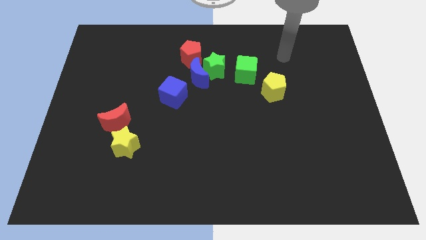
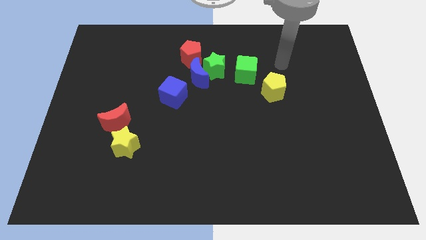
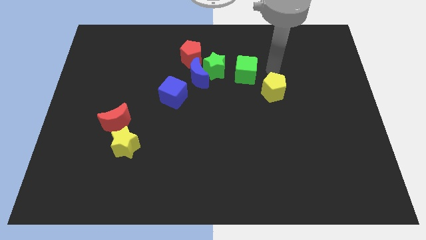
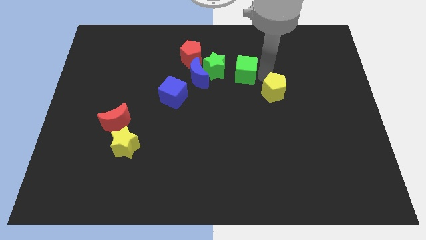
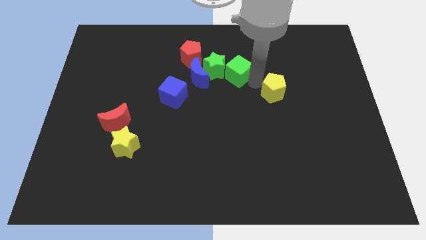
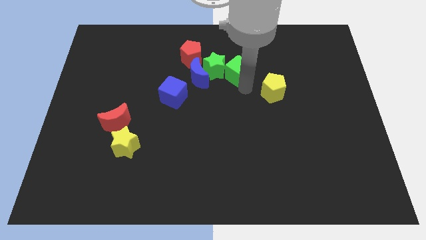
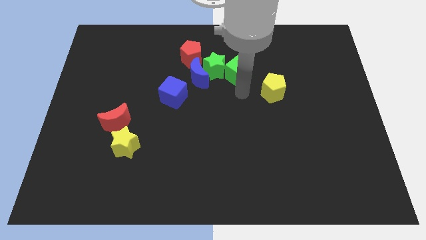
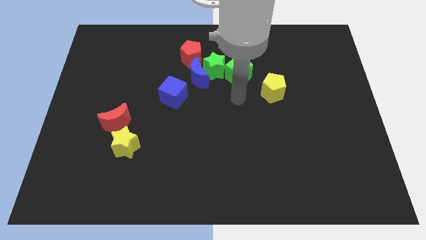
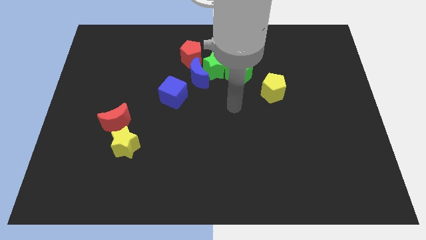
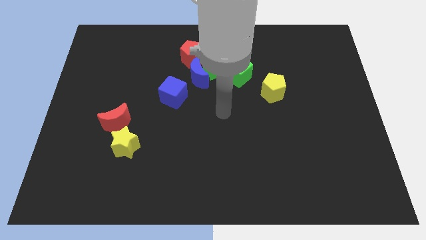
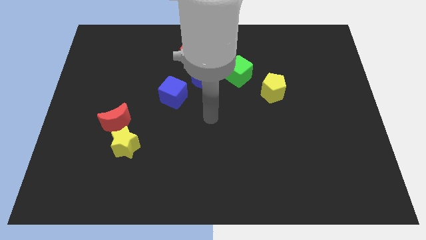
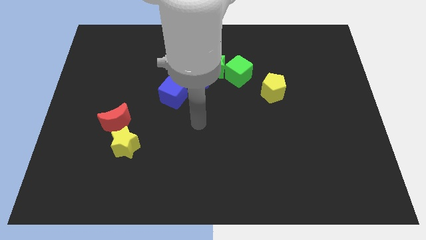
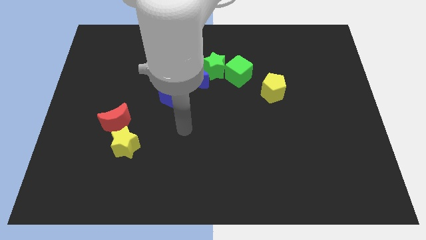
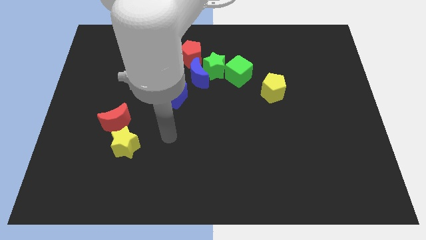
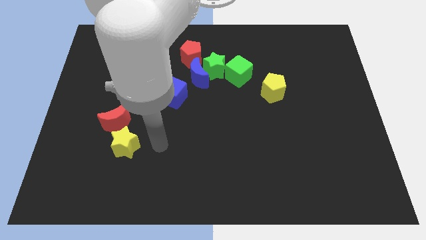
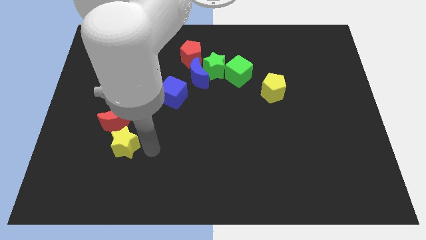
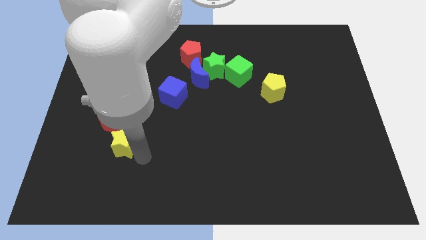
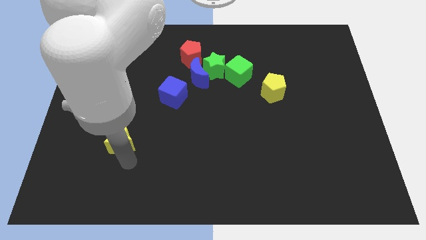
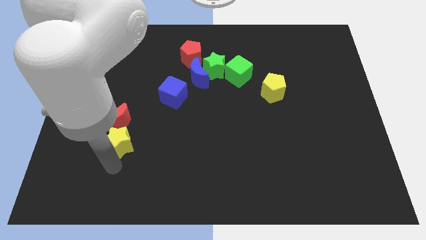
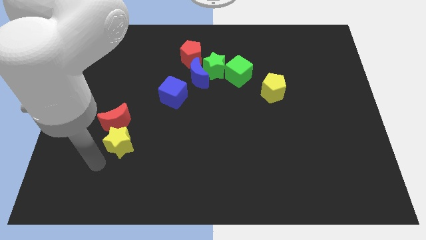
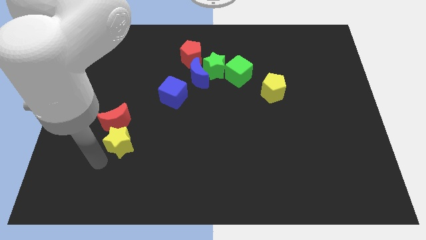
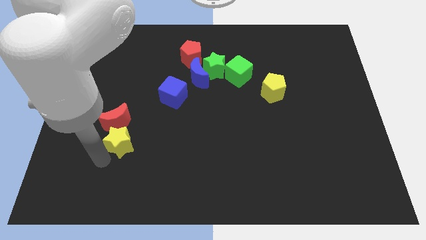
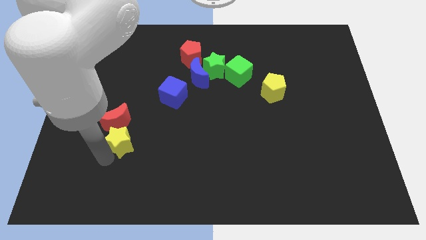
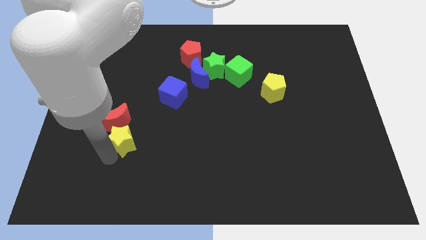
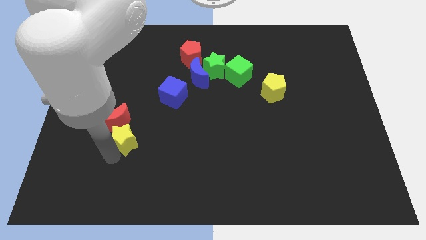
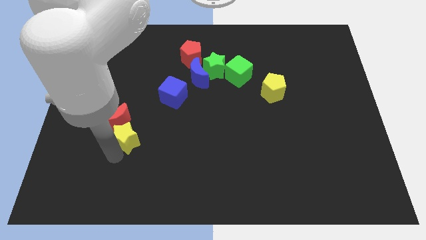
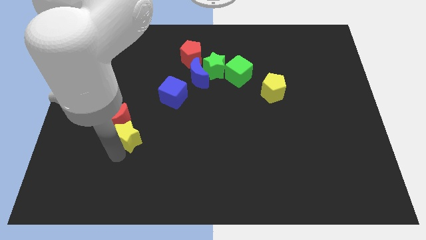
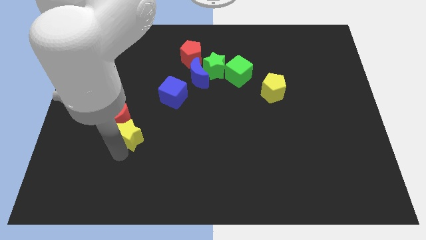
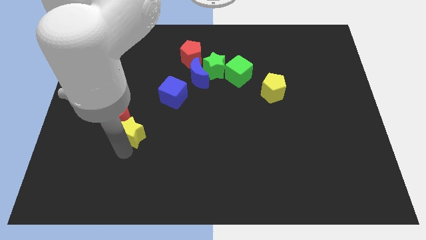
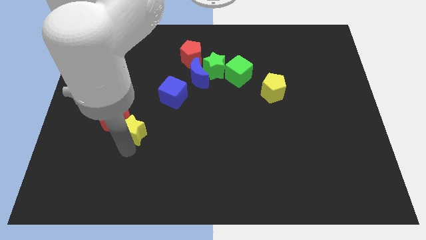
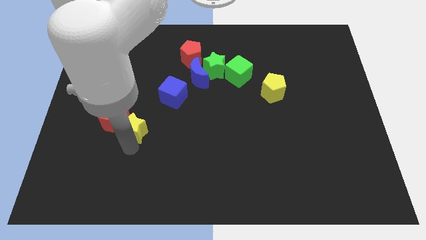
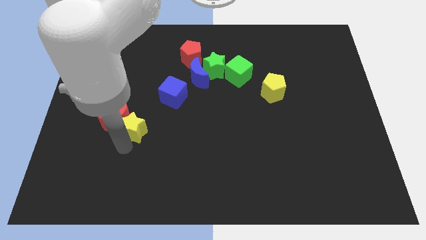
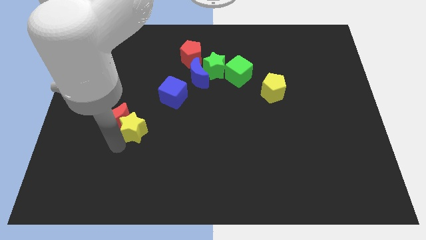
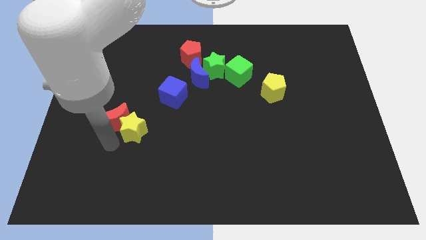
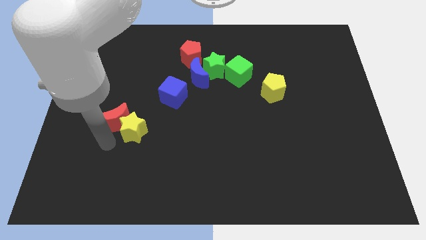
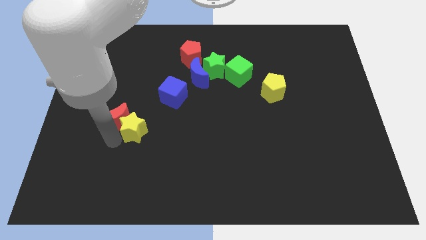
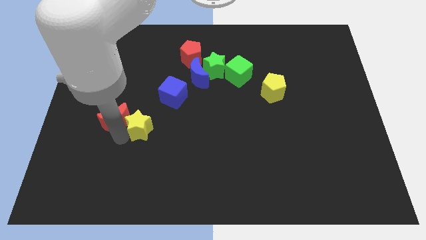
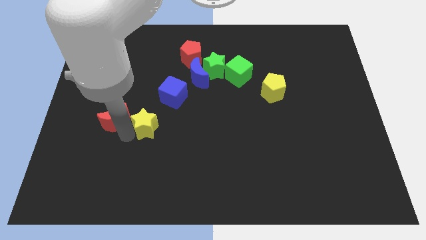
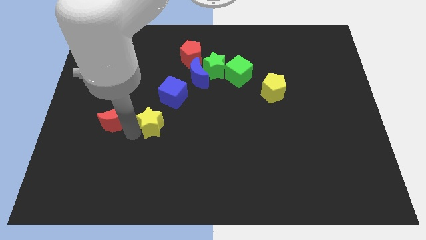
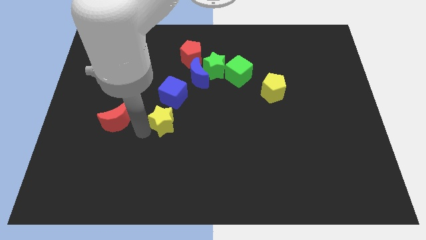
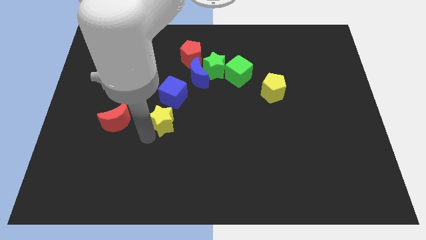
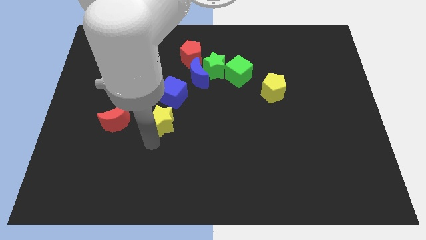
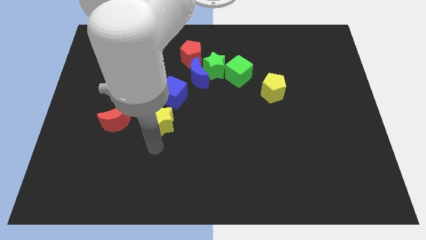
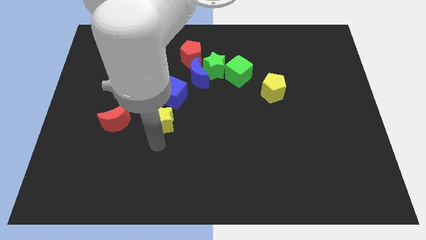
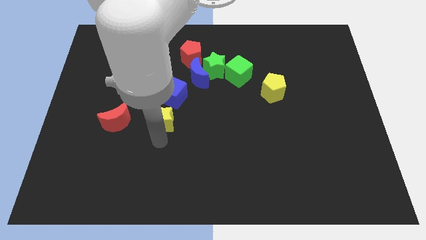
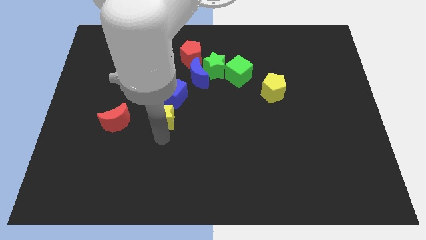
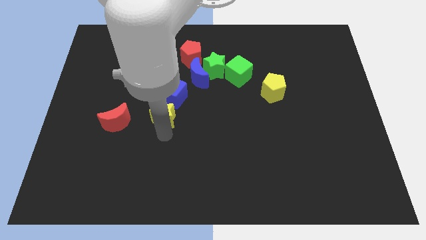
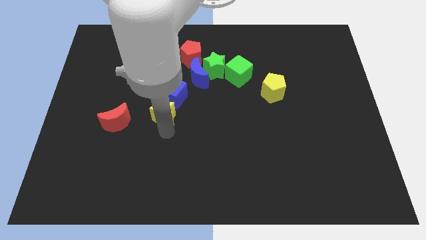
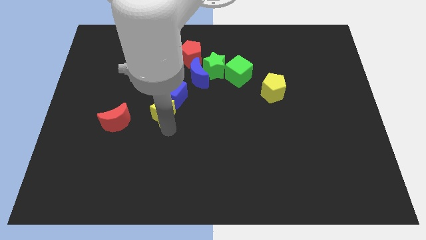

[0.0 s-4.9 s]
push the yellow star next to the blue cube

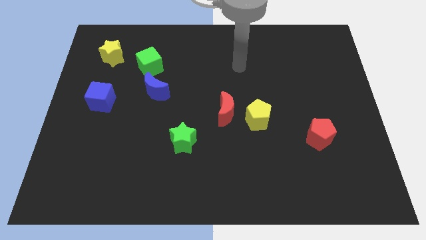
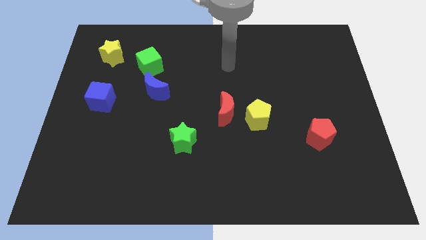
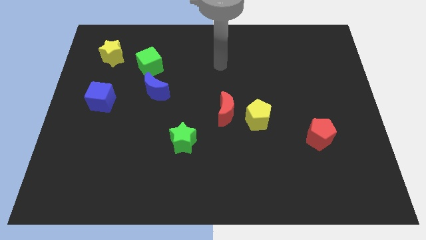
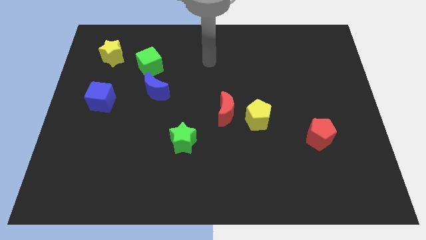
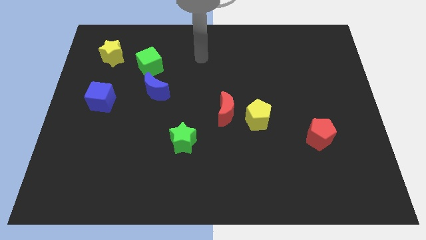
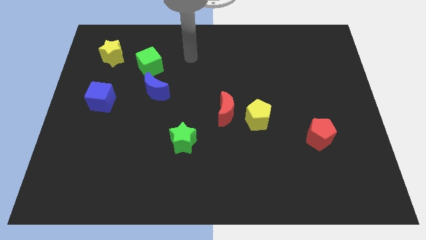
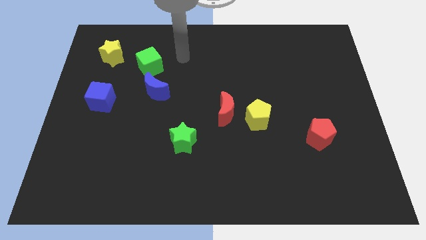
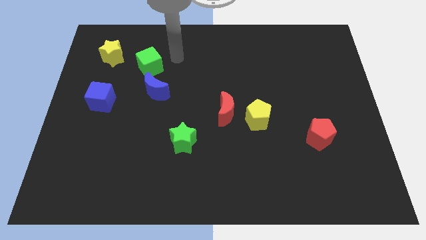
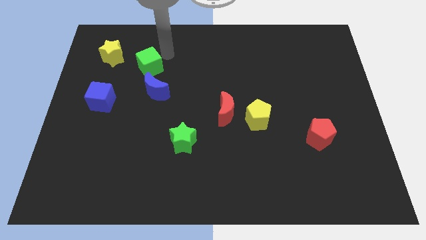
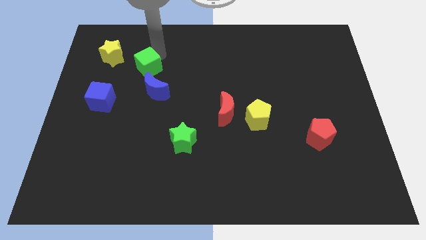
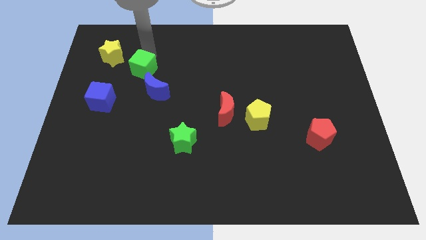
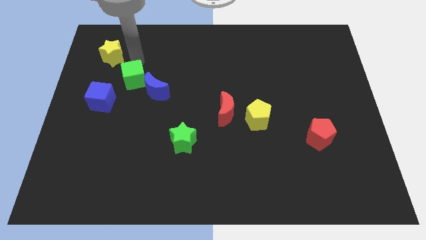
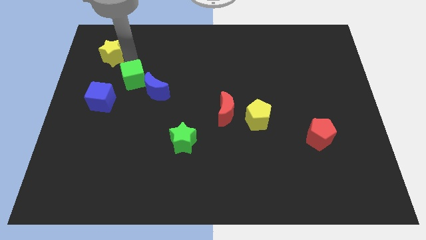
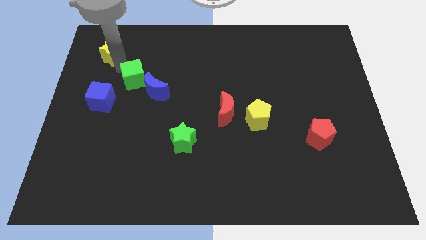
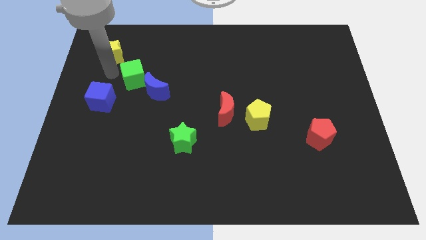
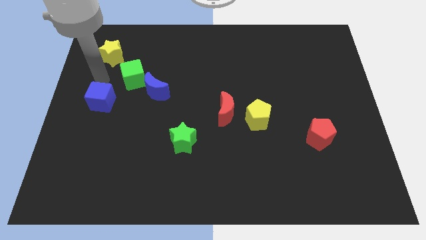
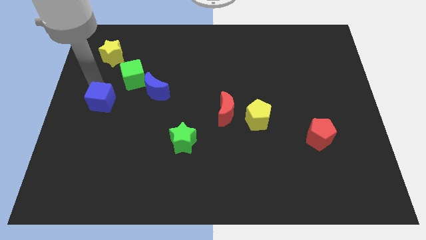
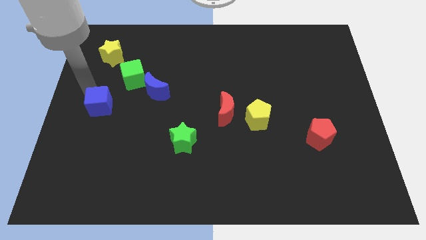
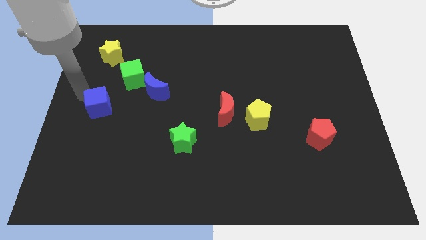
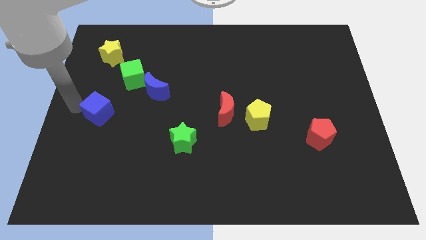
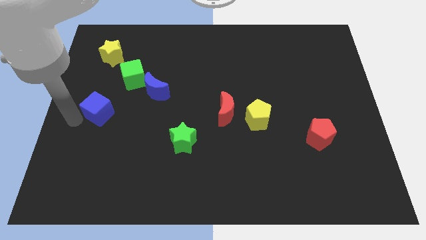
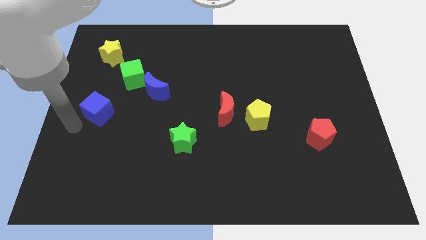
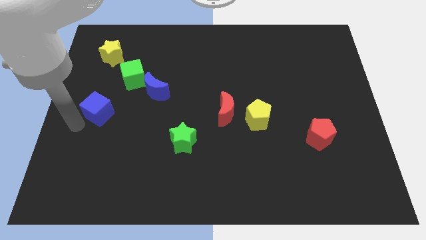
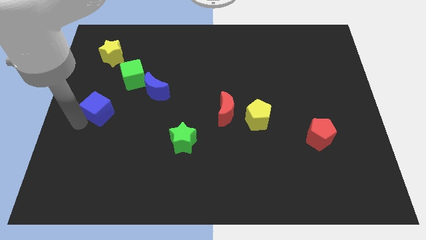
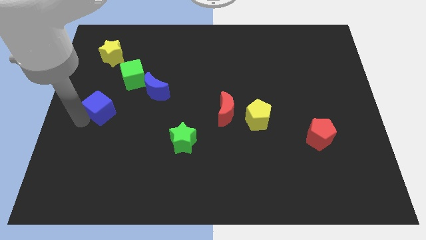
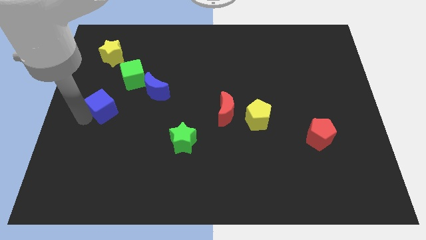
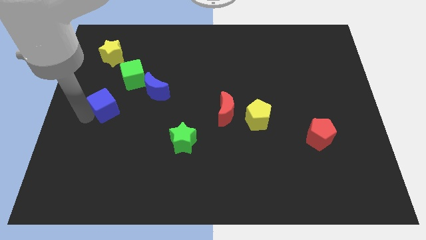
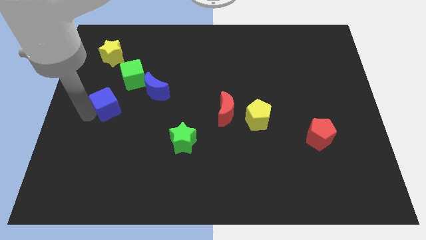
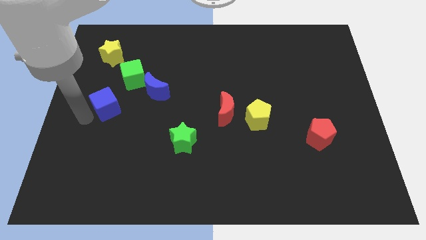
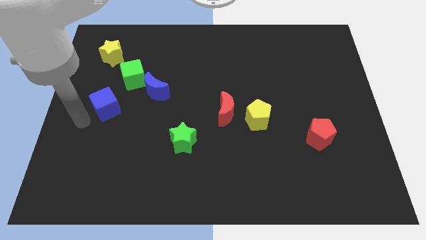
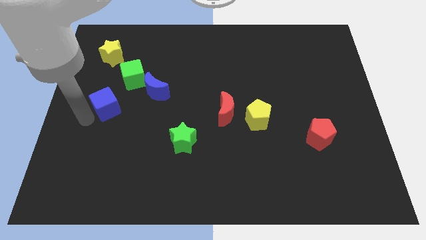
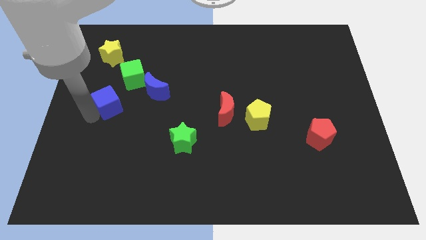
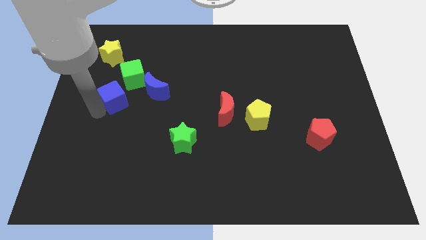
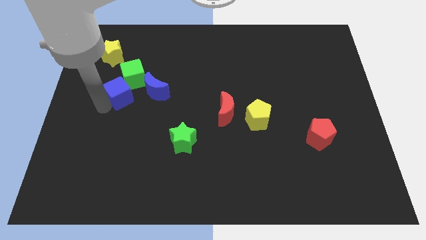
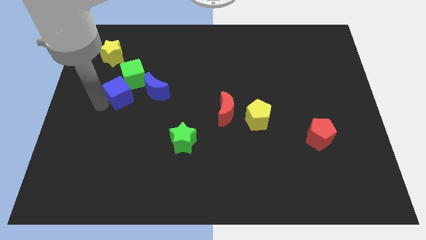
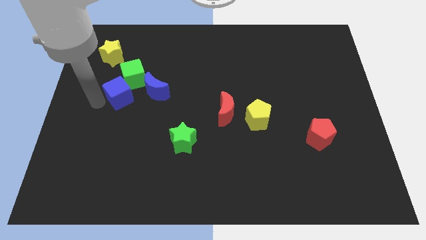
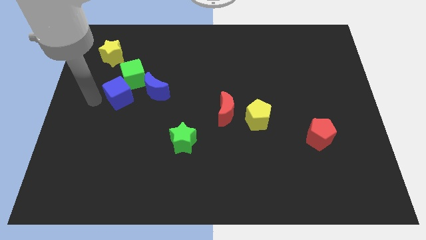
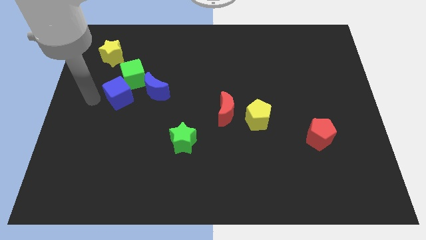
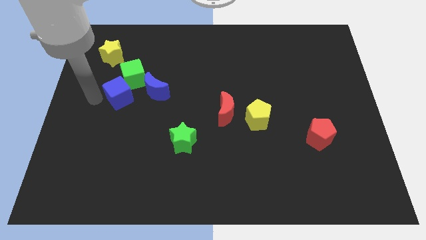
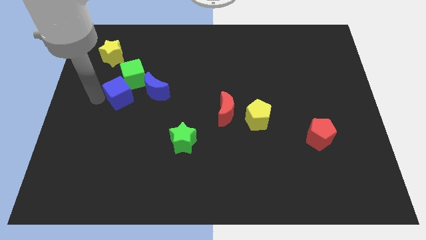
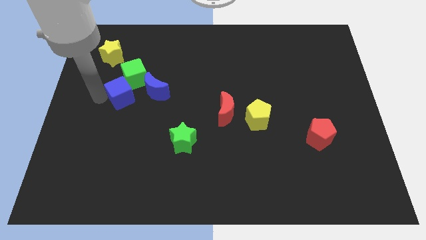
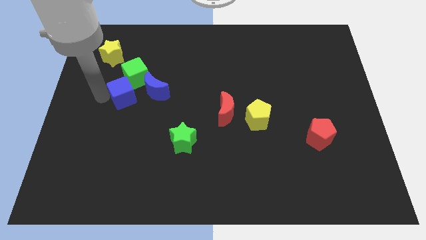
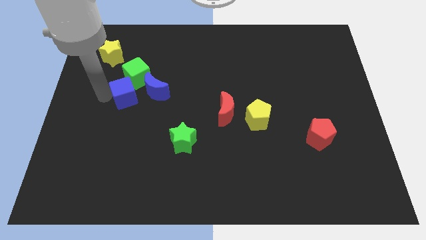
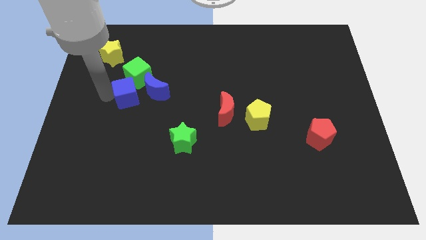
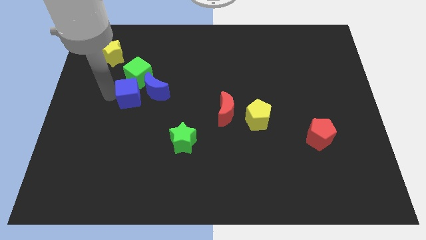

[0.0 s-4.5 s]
move the blue cube towards the blue moon
